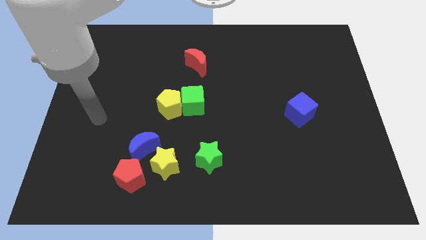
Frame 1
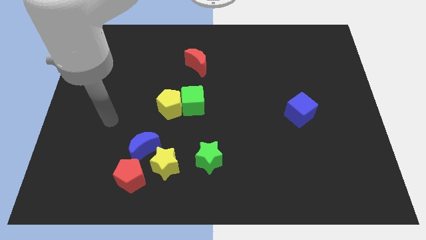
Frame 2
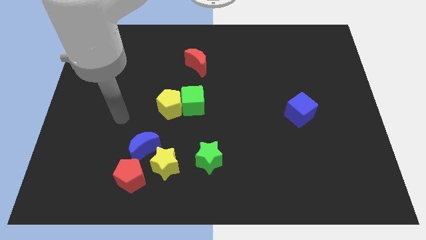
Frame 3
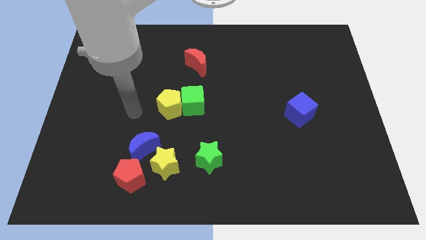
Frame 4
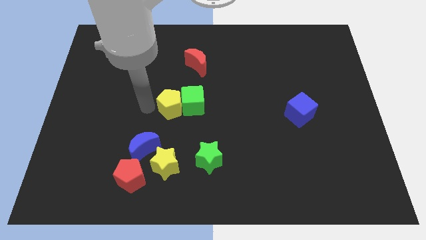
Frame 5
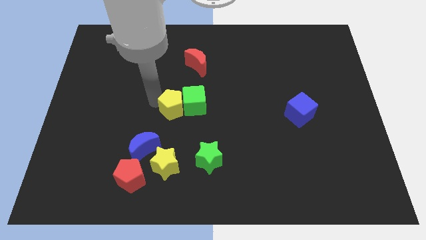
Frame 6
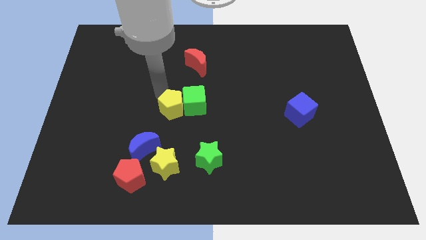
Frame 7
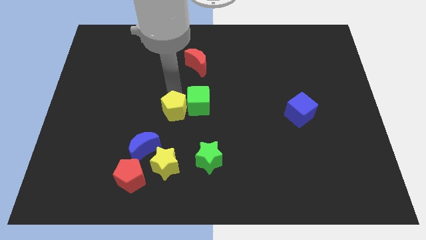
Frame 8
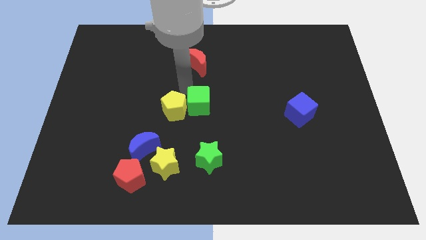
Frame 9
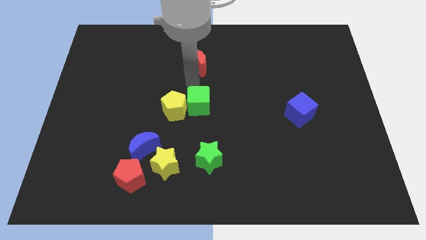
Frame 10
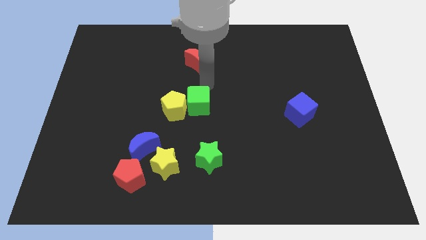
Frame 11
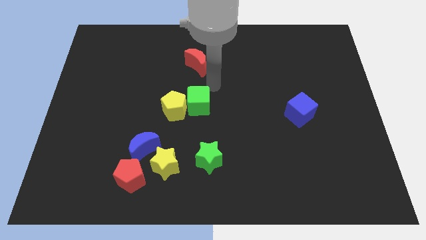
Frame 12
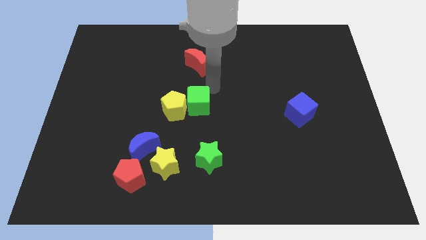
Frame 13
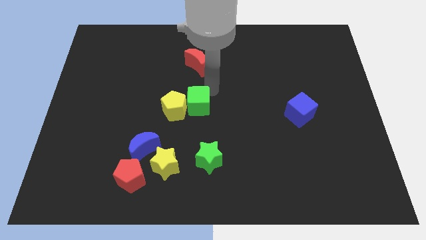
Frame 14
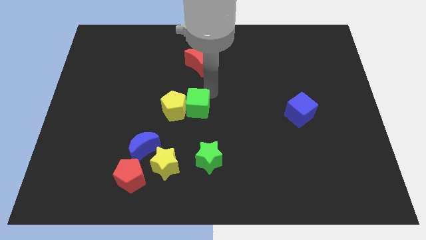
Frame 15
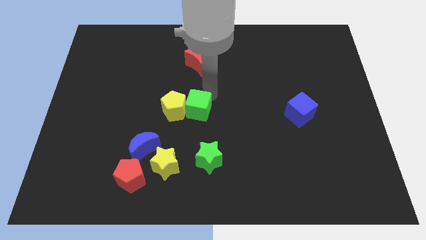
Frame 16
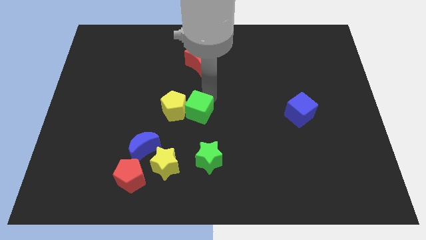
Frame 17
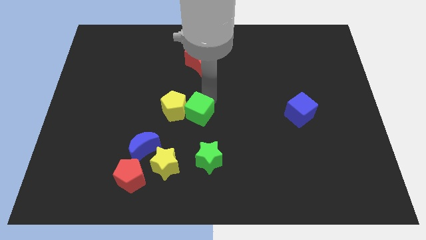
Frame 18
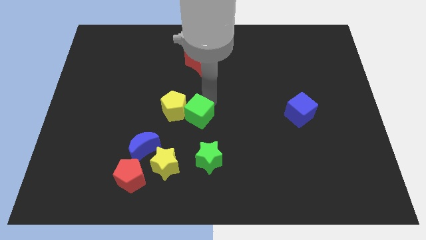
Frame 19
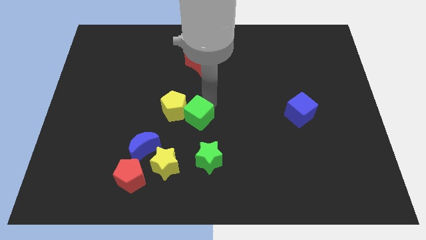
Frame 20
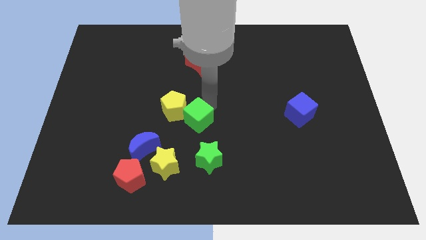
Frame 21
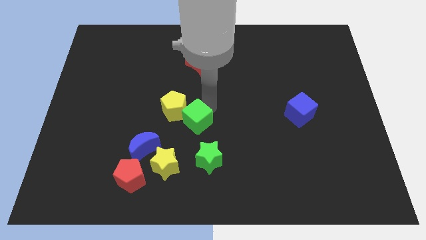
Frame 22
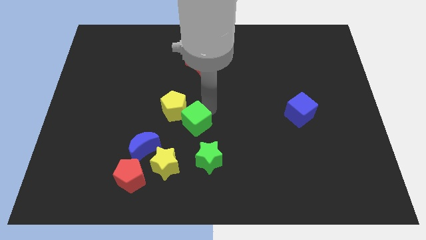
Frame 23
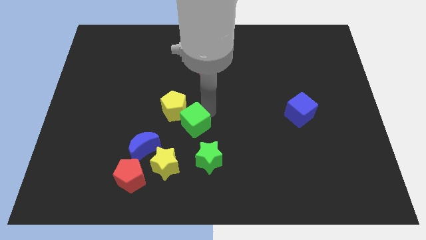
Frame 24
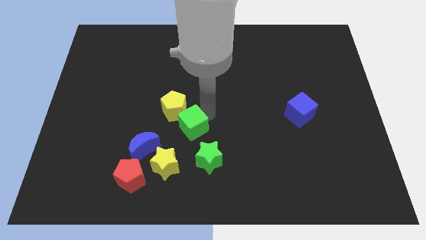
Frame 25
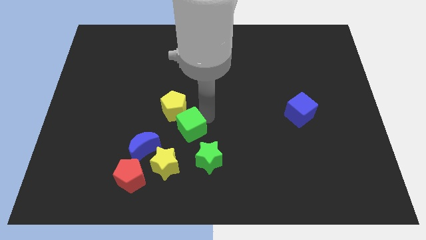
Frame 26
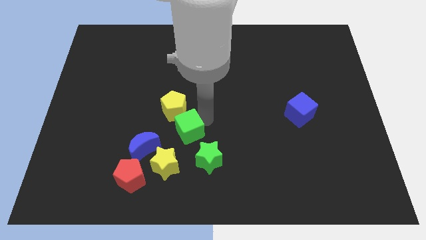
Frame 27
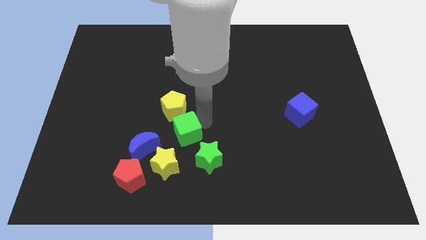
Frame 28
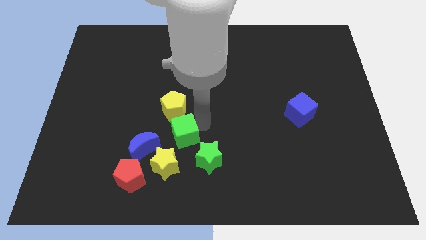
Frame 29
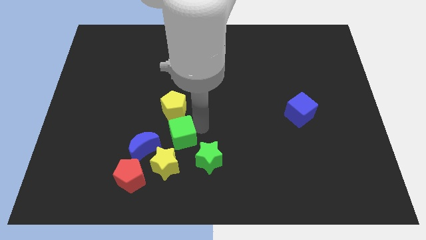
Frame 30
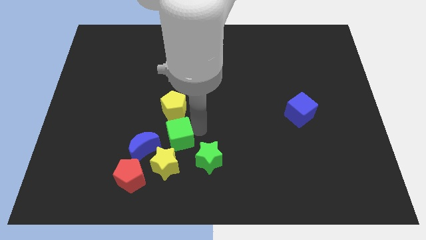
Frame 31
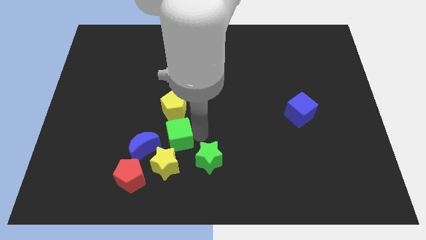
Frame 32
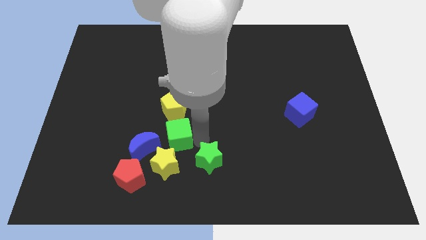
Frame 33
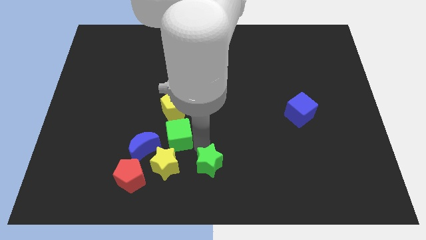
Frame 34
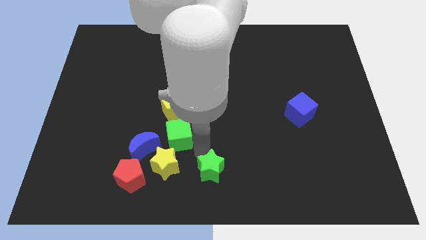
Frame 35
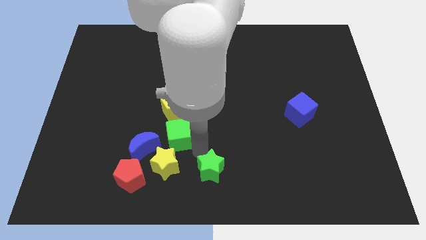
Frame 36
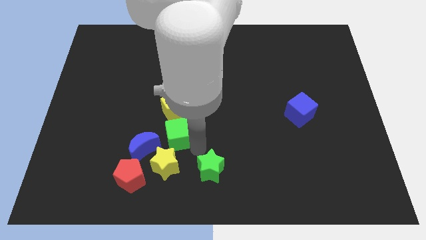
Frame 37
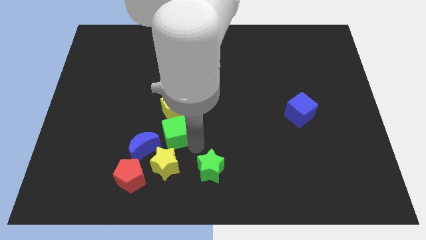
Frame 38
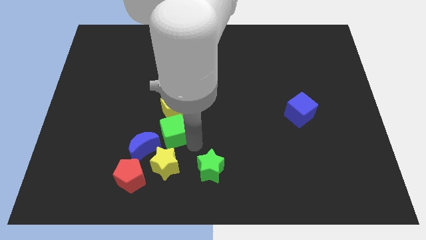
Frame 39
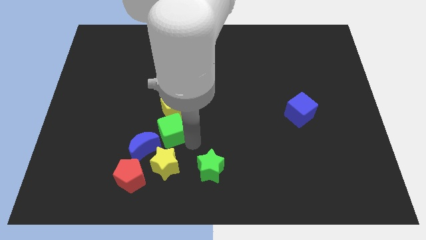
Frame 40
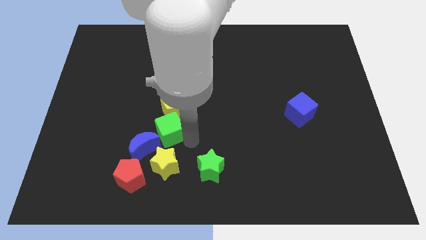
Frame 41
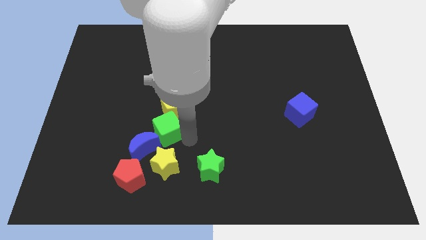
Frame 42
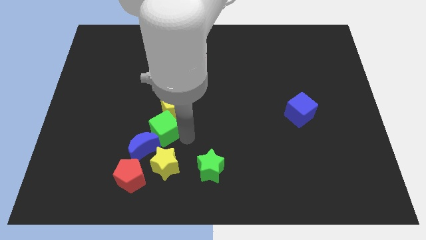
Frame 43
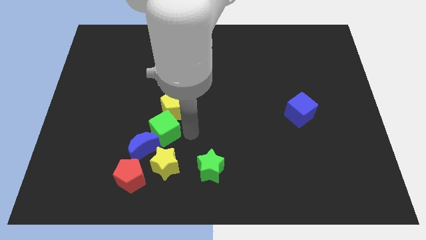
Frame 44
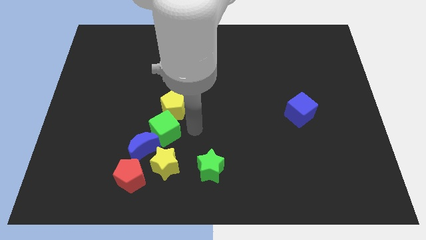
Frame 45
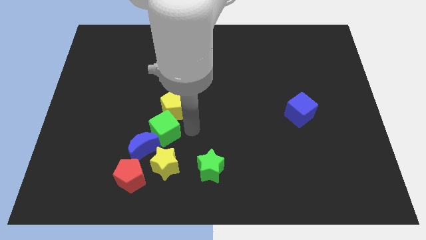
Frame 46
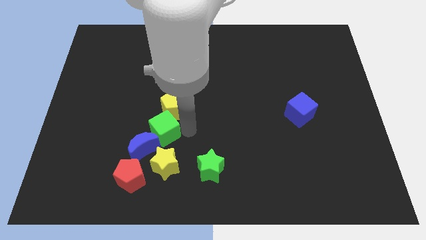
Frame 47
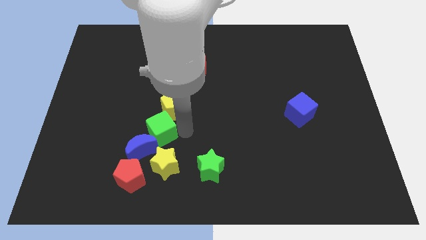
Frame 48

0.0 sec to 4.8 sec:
push the green cube diagonally up and to the left of the yellow star

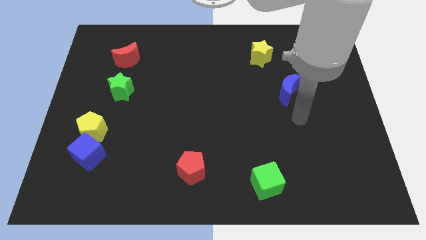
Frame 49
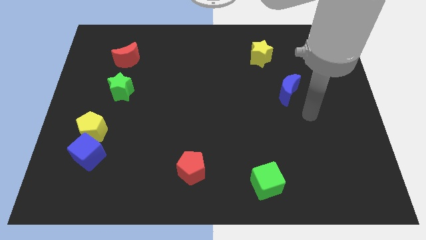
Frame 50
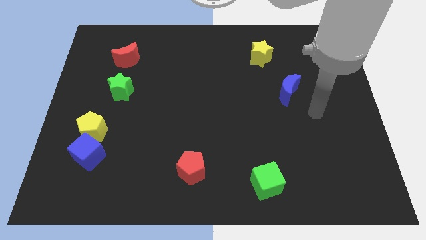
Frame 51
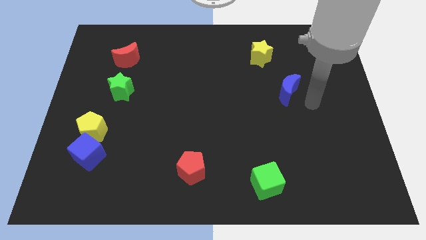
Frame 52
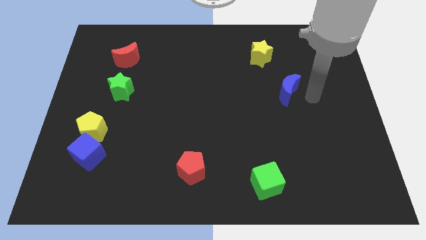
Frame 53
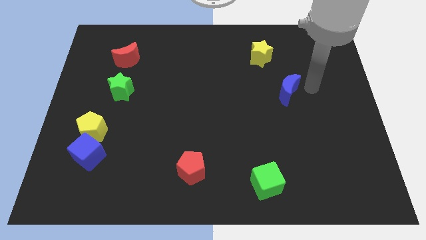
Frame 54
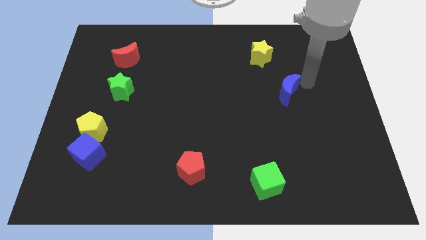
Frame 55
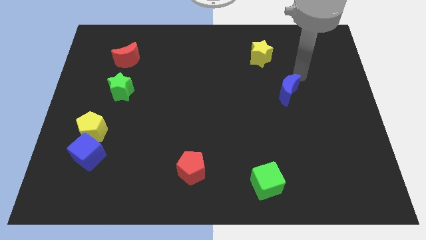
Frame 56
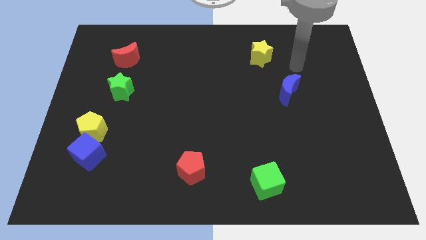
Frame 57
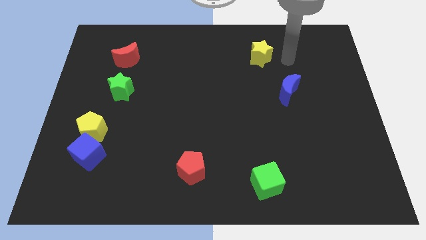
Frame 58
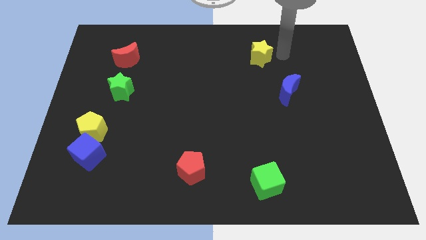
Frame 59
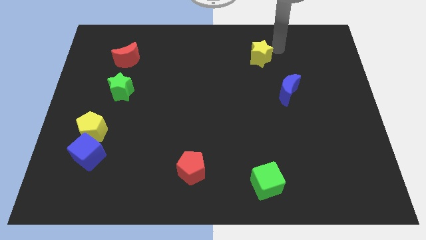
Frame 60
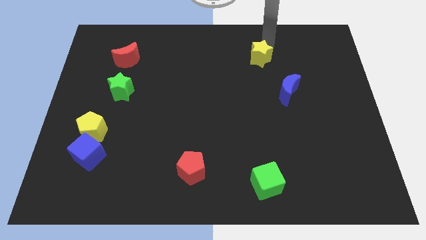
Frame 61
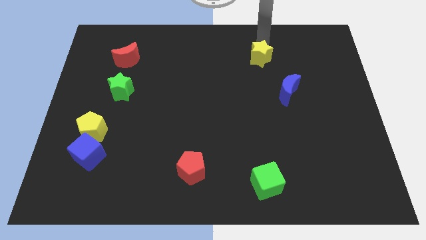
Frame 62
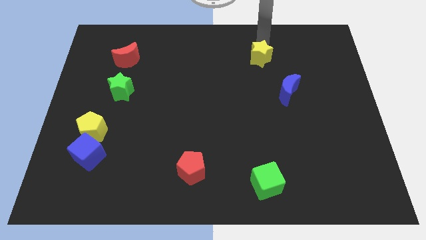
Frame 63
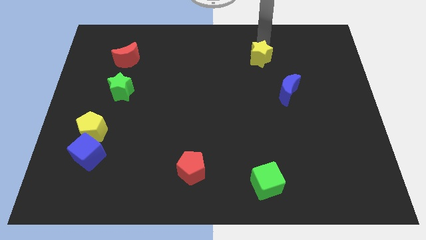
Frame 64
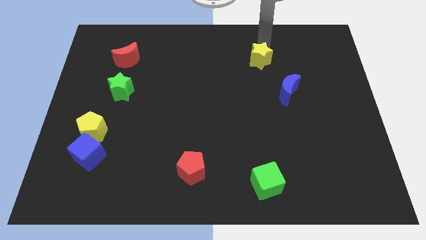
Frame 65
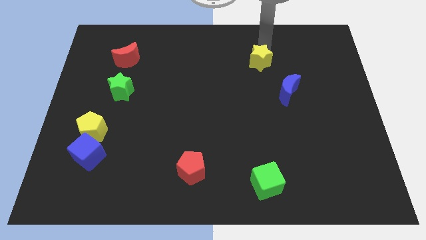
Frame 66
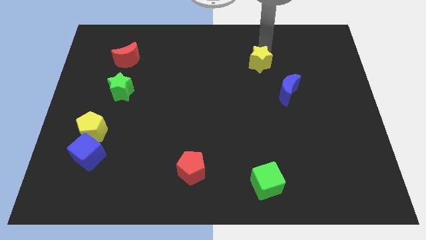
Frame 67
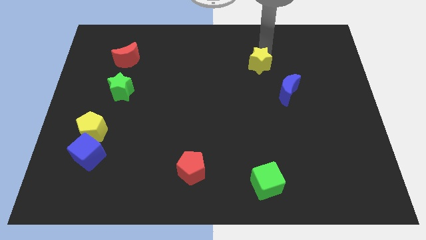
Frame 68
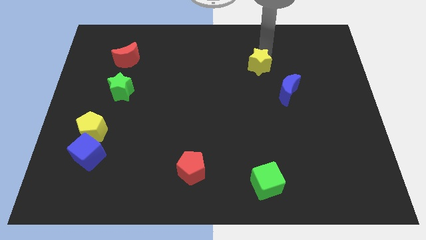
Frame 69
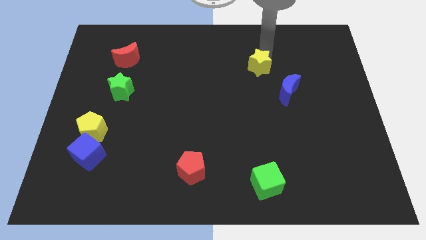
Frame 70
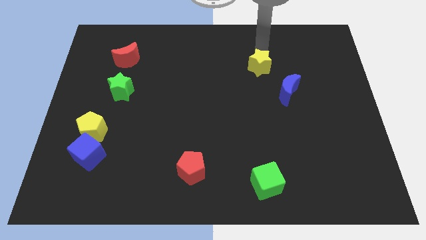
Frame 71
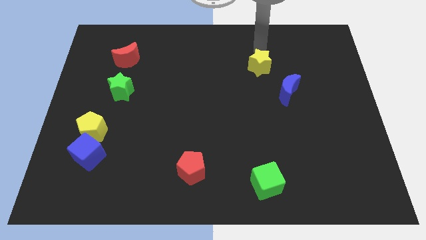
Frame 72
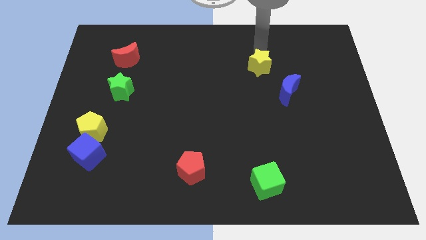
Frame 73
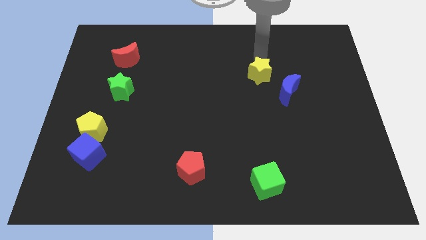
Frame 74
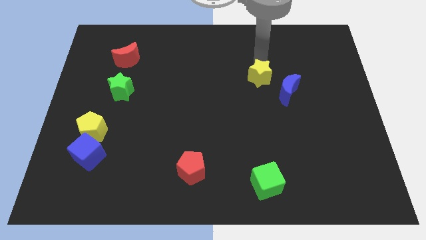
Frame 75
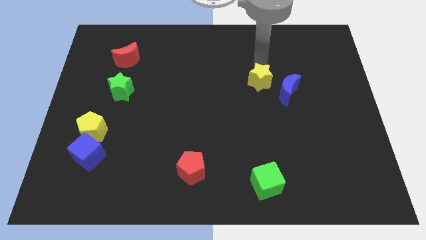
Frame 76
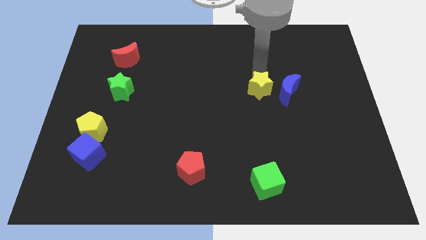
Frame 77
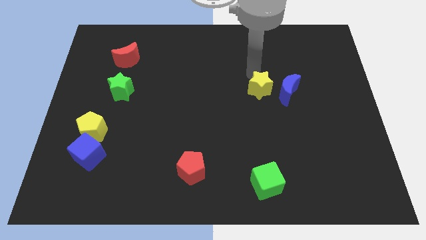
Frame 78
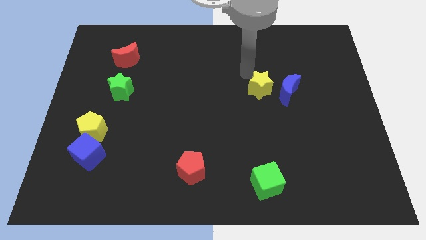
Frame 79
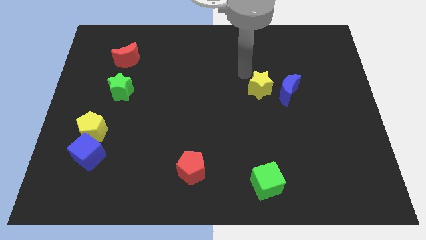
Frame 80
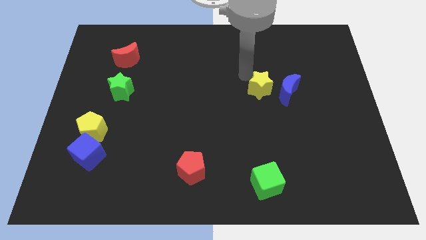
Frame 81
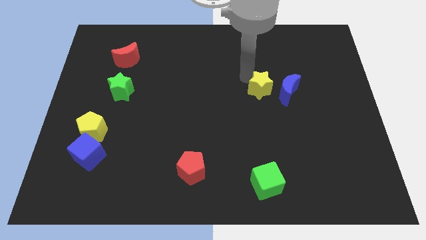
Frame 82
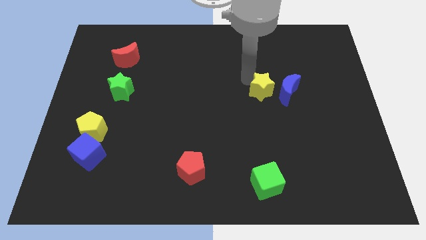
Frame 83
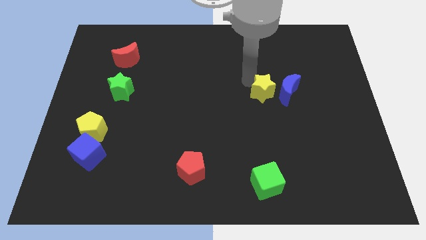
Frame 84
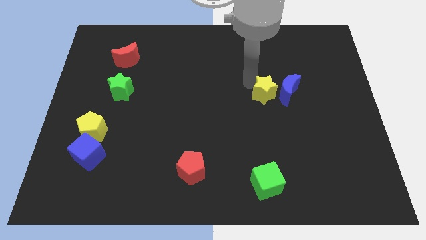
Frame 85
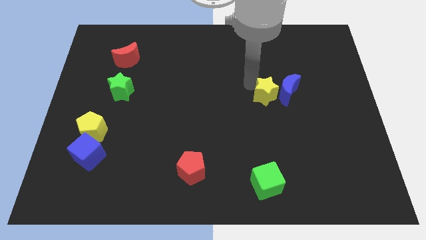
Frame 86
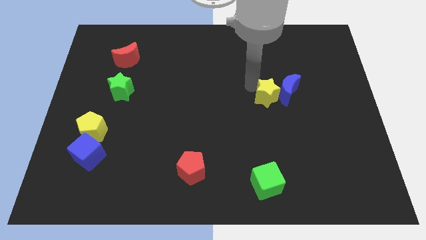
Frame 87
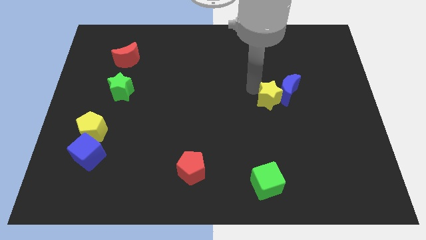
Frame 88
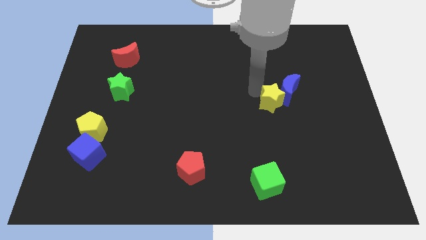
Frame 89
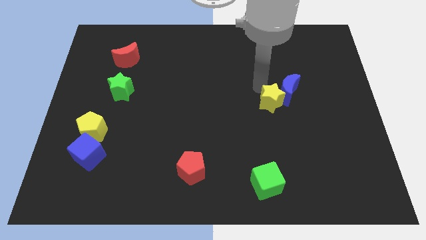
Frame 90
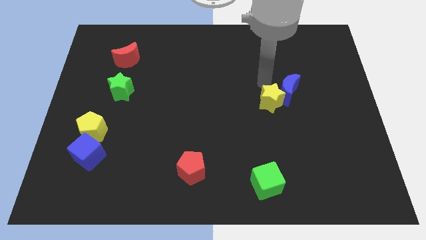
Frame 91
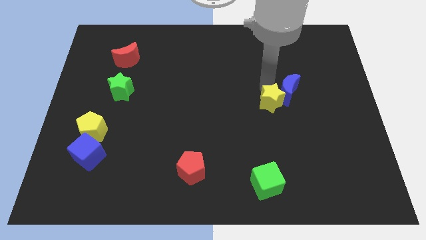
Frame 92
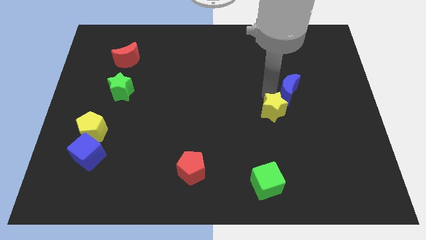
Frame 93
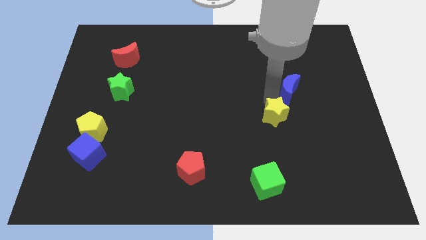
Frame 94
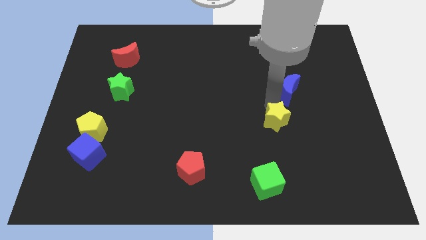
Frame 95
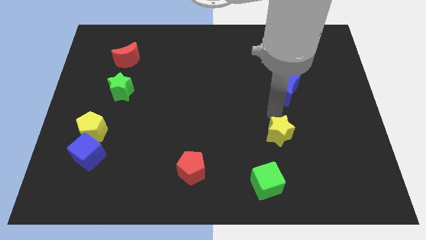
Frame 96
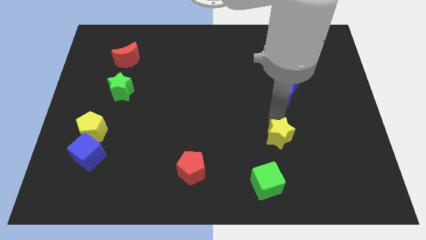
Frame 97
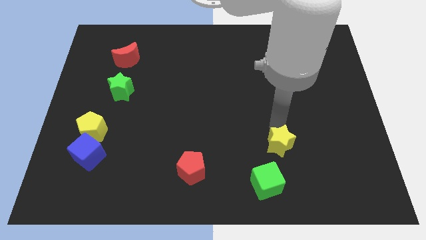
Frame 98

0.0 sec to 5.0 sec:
put the yellow star to the top right of the green cube
